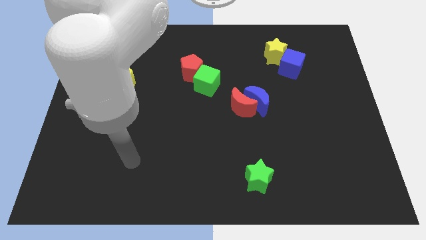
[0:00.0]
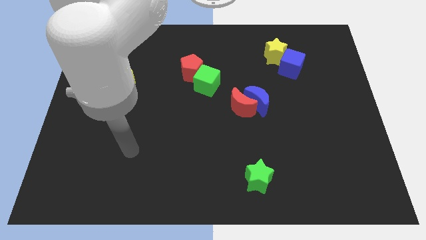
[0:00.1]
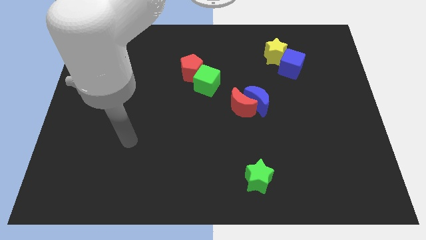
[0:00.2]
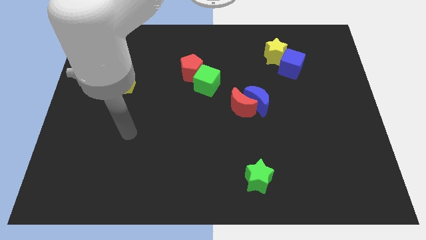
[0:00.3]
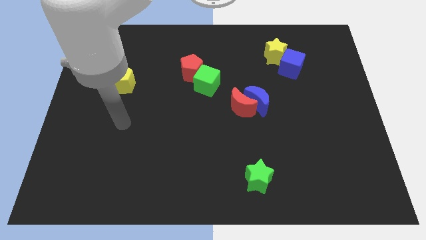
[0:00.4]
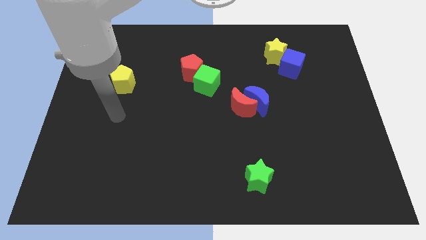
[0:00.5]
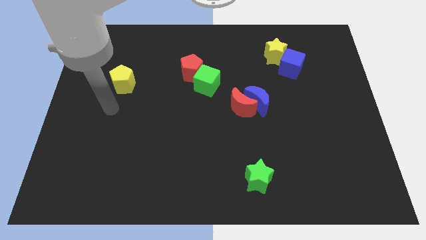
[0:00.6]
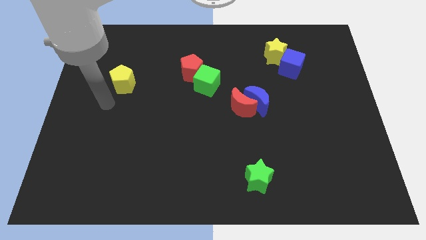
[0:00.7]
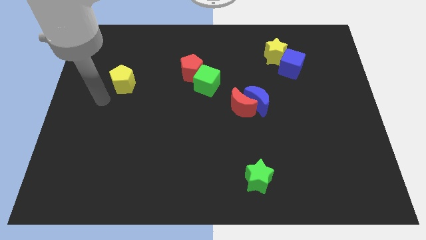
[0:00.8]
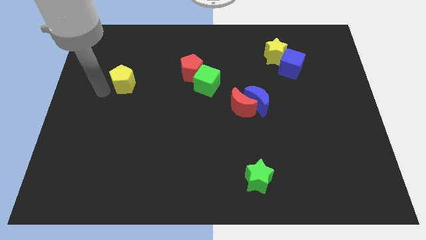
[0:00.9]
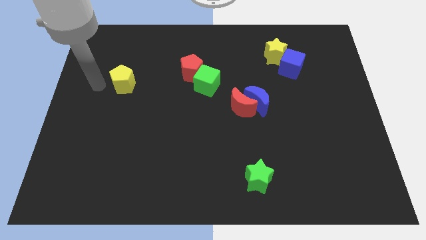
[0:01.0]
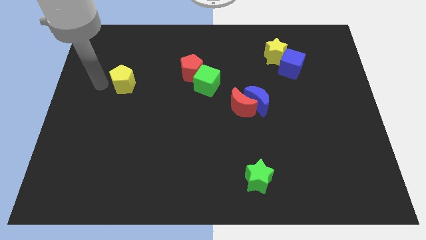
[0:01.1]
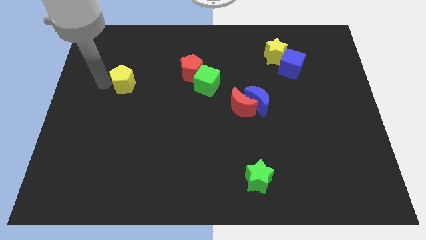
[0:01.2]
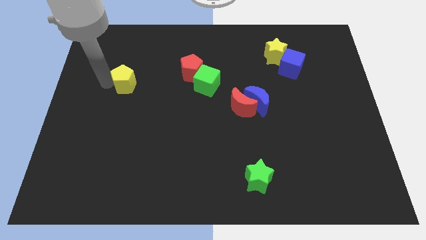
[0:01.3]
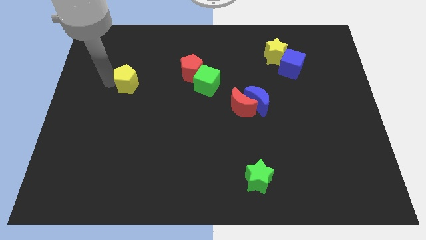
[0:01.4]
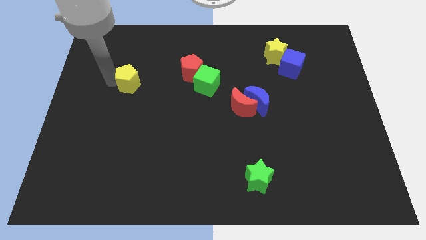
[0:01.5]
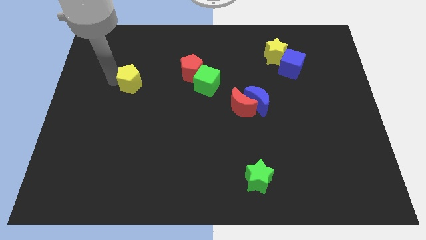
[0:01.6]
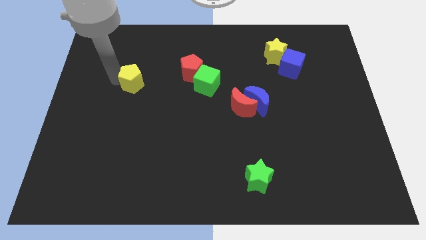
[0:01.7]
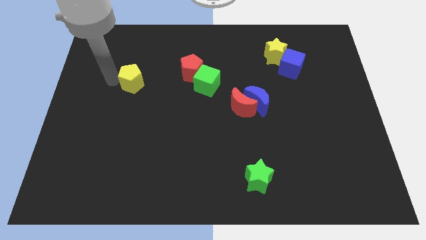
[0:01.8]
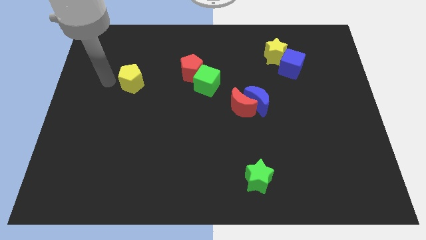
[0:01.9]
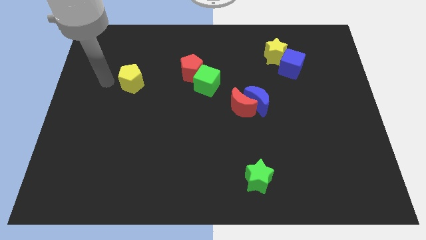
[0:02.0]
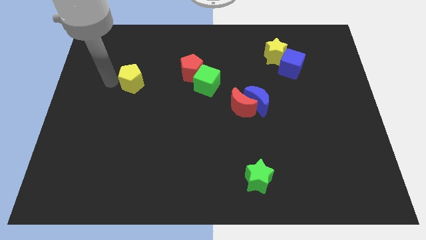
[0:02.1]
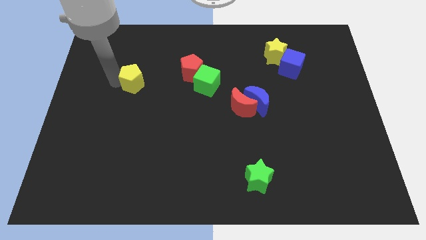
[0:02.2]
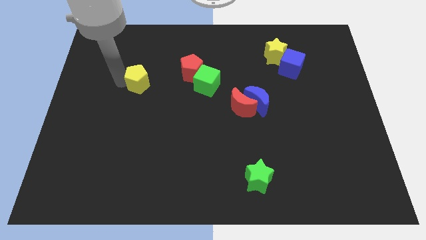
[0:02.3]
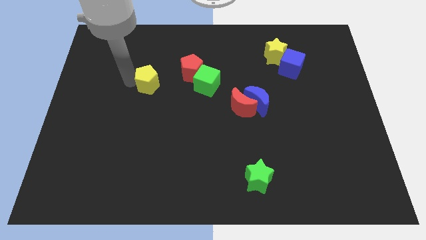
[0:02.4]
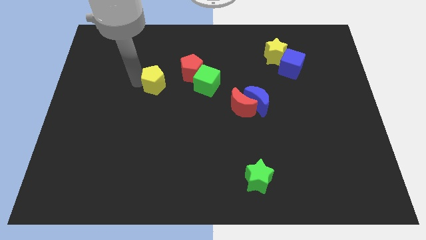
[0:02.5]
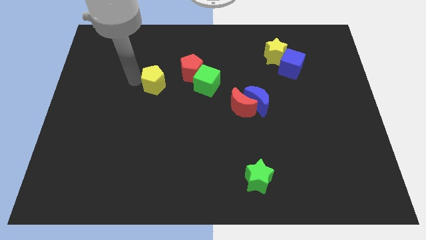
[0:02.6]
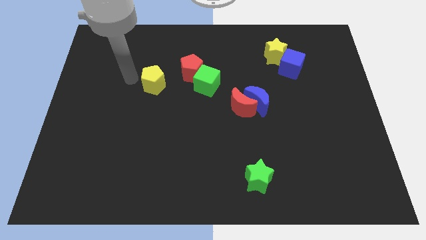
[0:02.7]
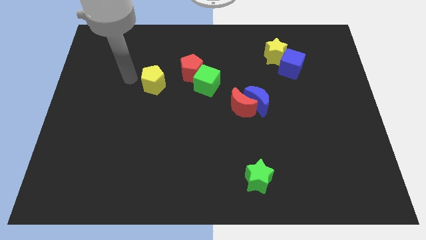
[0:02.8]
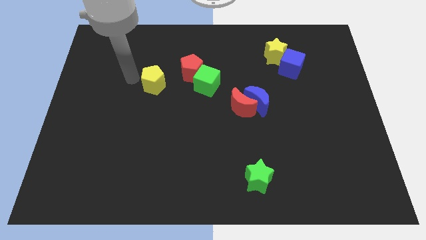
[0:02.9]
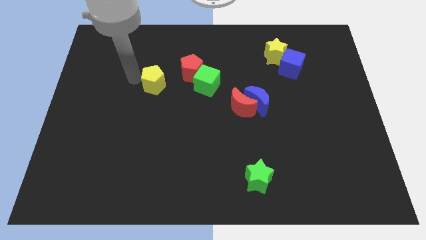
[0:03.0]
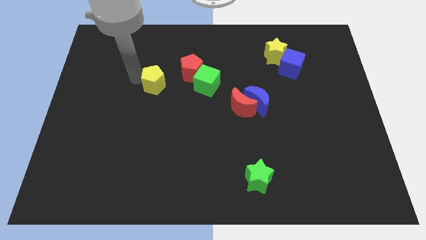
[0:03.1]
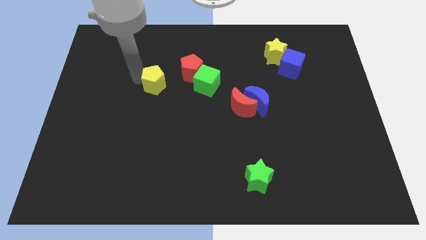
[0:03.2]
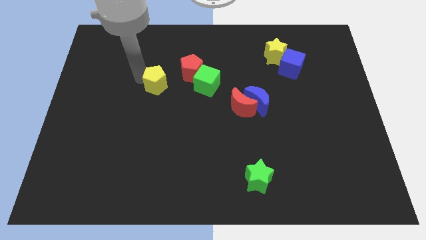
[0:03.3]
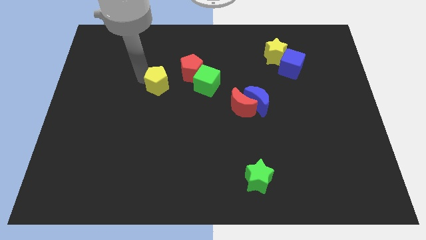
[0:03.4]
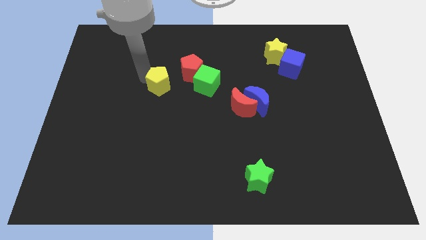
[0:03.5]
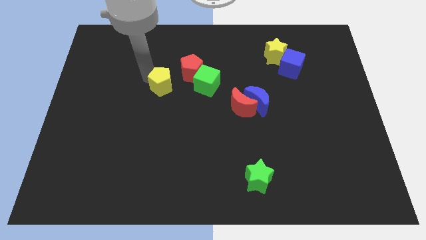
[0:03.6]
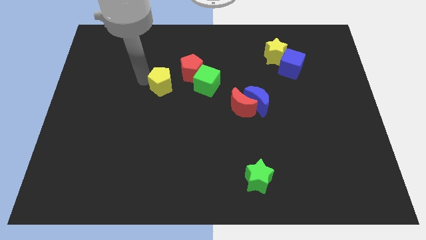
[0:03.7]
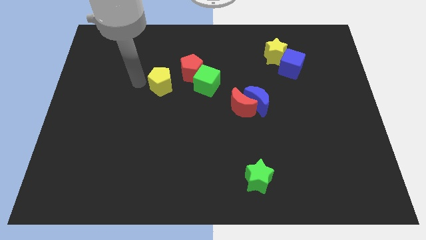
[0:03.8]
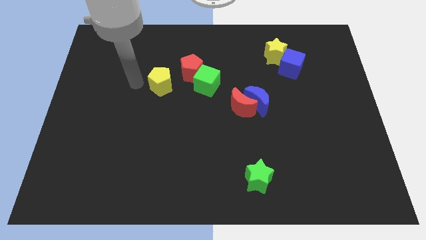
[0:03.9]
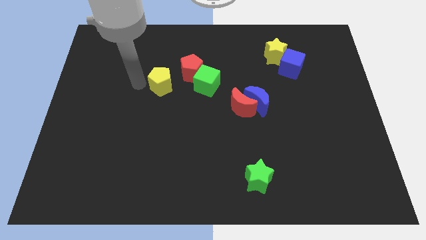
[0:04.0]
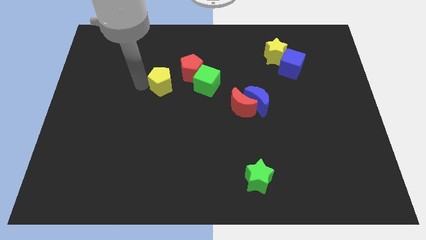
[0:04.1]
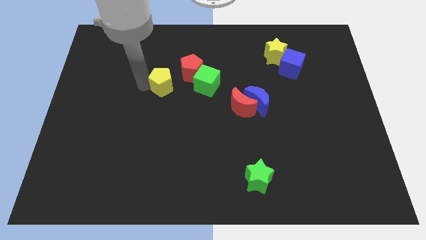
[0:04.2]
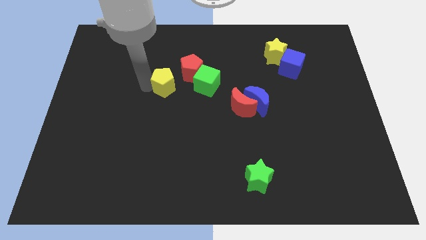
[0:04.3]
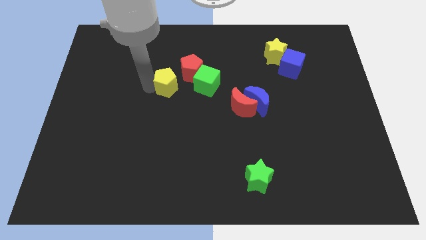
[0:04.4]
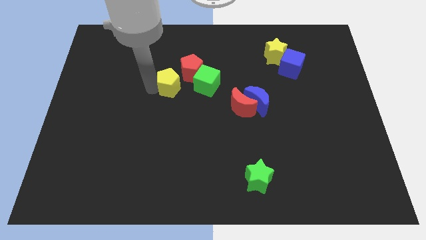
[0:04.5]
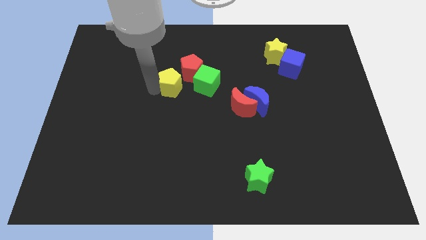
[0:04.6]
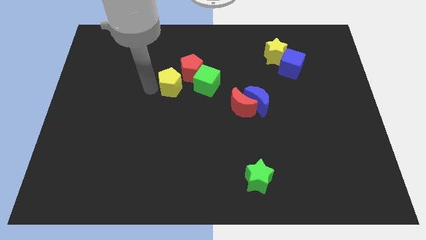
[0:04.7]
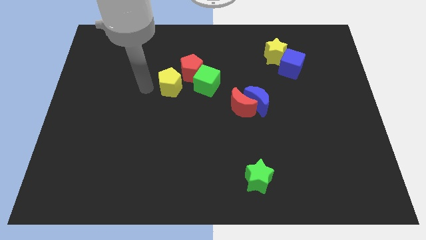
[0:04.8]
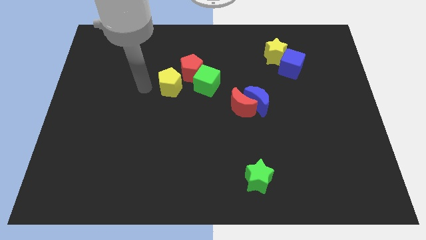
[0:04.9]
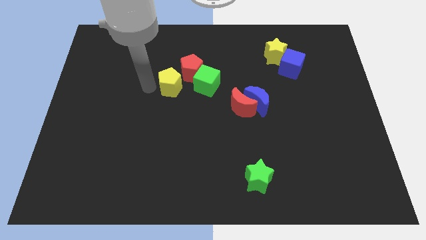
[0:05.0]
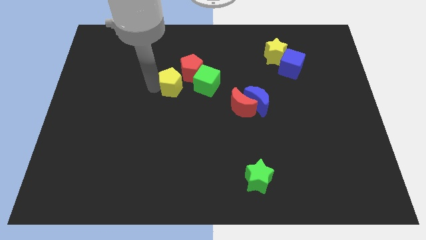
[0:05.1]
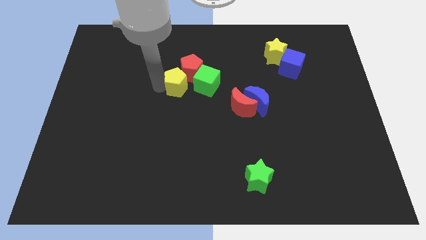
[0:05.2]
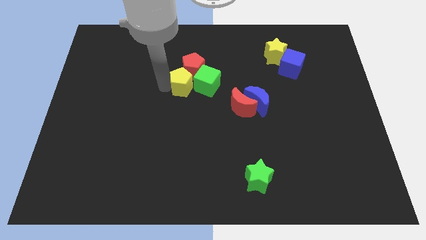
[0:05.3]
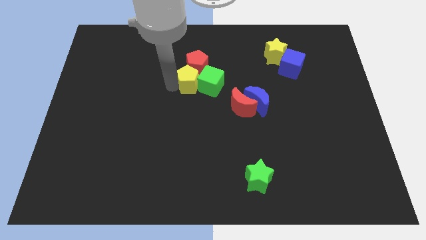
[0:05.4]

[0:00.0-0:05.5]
slide the yellow pentagon towards the green cube

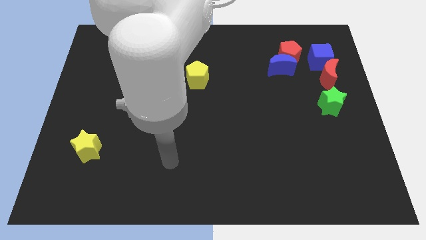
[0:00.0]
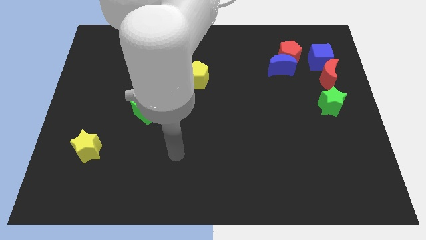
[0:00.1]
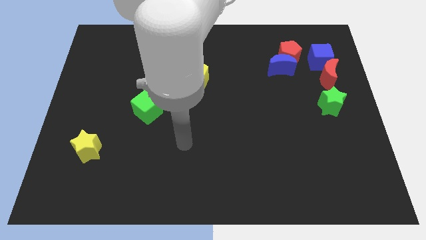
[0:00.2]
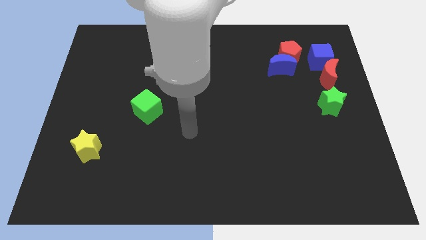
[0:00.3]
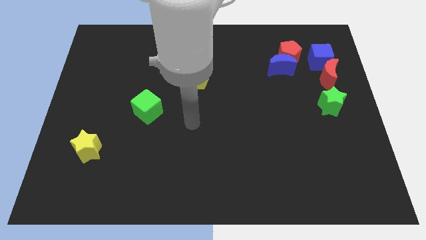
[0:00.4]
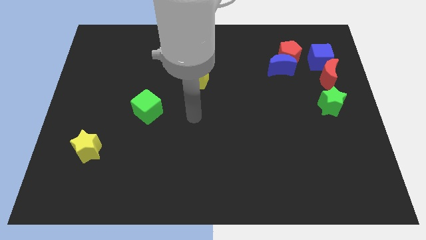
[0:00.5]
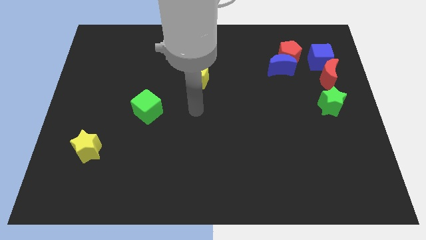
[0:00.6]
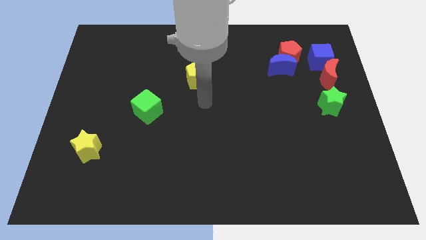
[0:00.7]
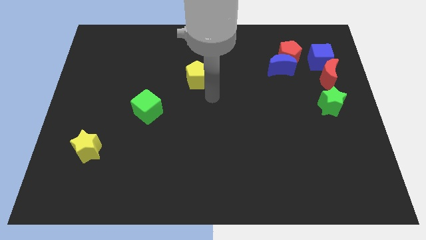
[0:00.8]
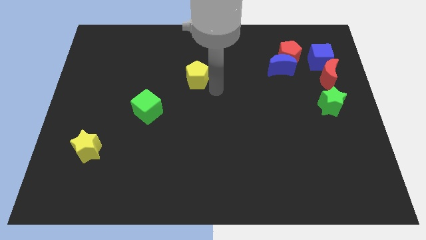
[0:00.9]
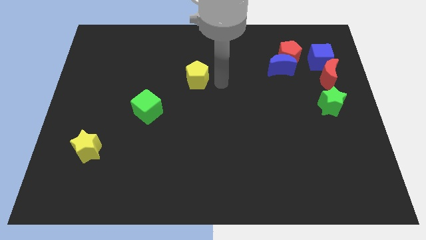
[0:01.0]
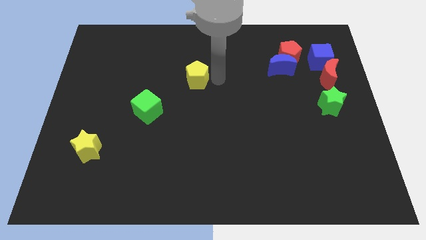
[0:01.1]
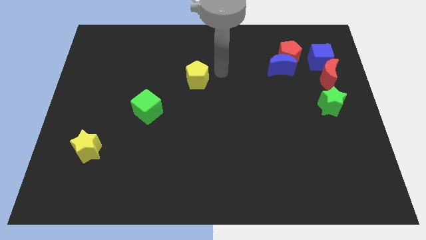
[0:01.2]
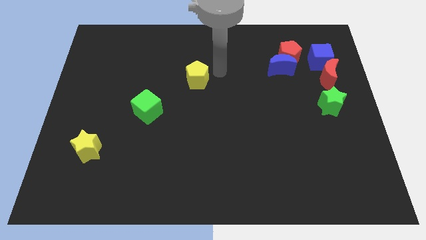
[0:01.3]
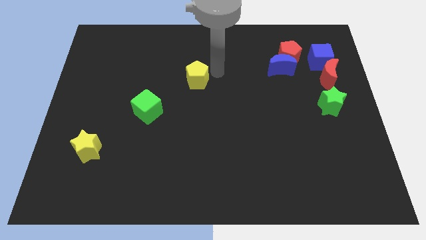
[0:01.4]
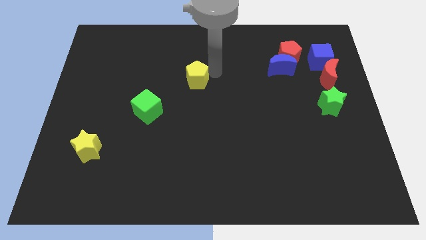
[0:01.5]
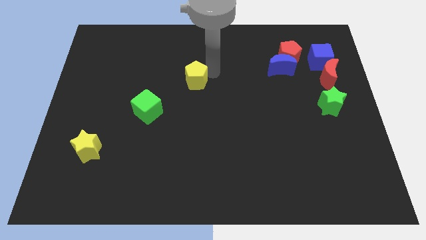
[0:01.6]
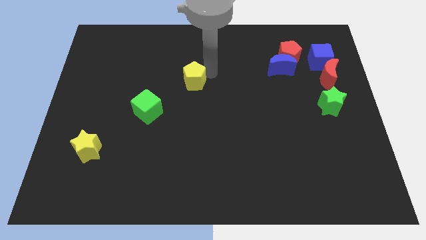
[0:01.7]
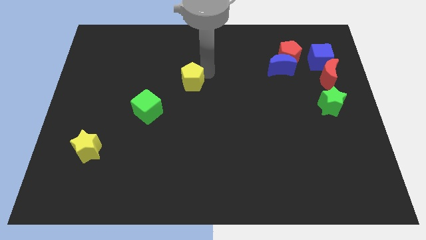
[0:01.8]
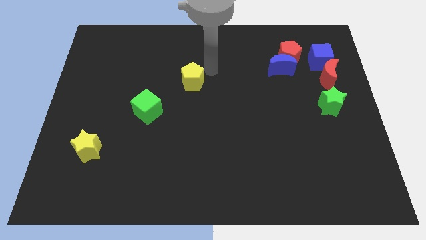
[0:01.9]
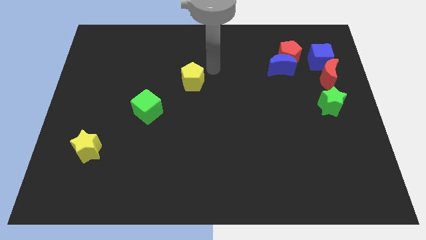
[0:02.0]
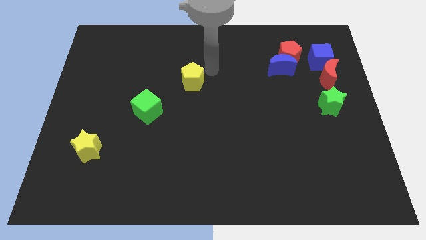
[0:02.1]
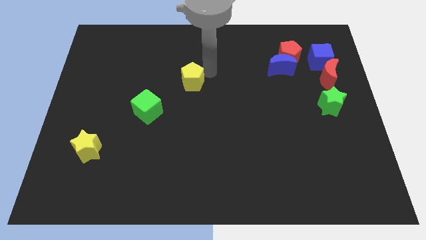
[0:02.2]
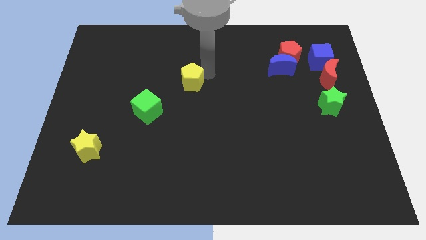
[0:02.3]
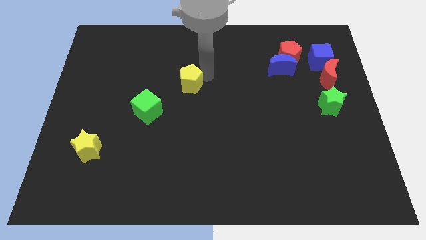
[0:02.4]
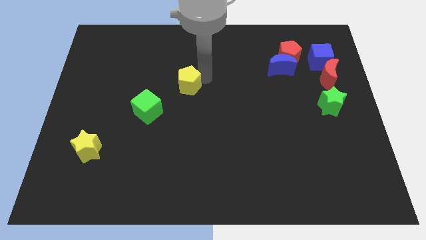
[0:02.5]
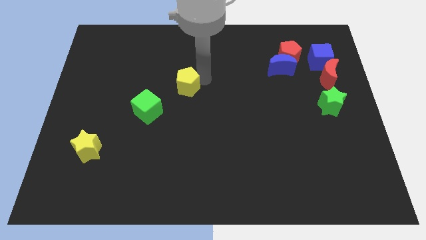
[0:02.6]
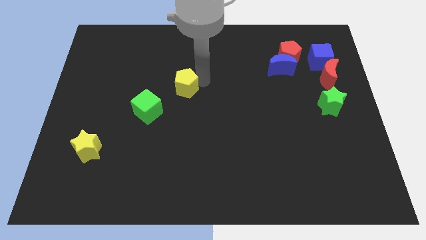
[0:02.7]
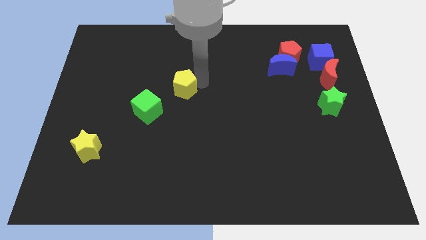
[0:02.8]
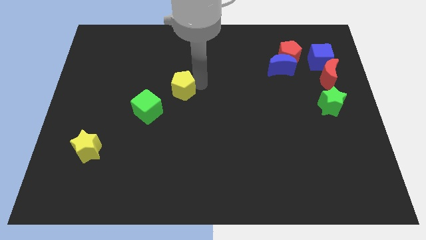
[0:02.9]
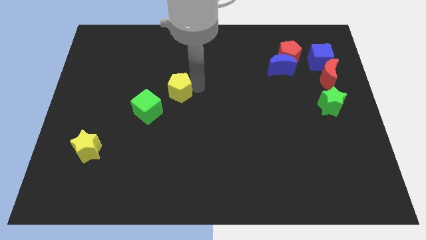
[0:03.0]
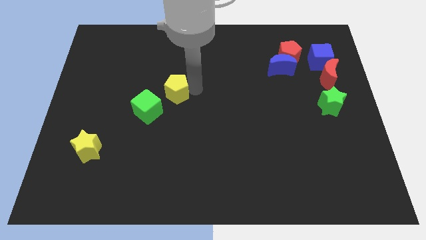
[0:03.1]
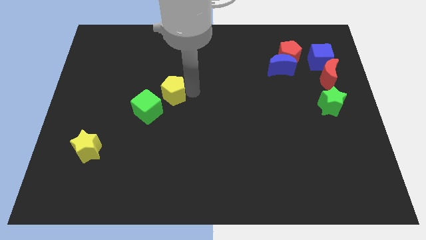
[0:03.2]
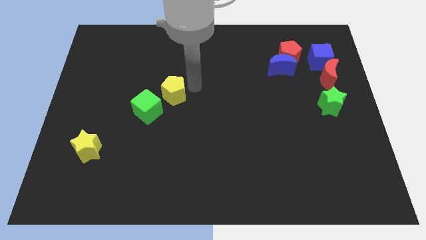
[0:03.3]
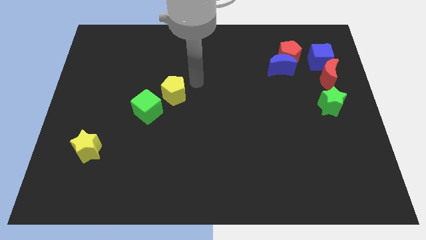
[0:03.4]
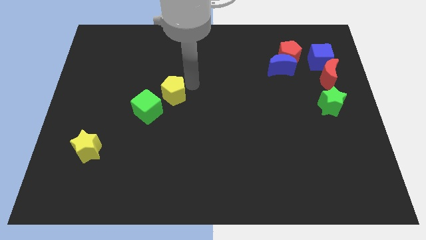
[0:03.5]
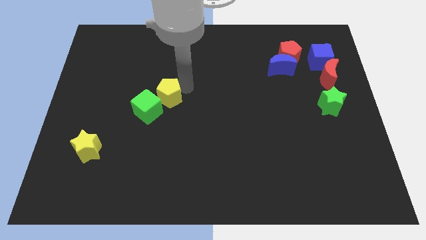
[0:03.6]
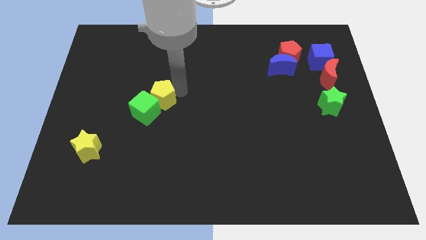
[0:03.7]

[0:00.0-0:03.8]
push the yellow pentagon next to the green cube
